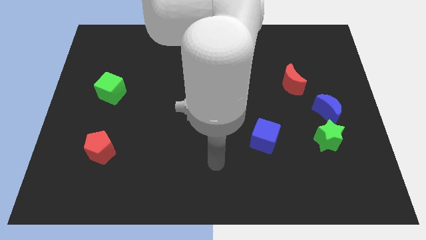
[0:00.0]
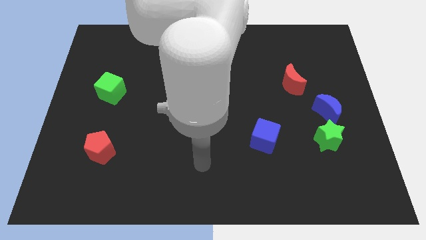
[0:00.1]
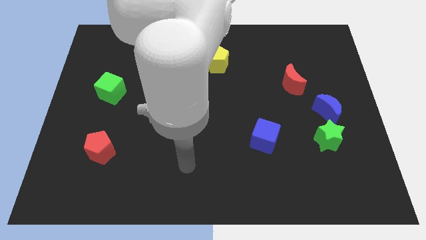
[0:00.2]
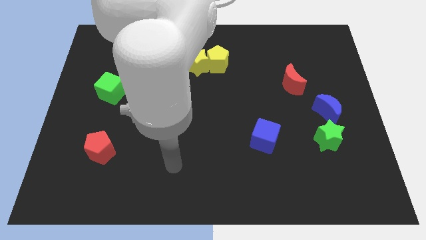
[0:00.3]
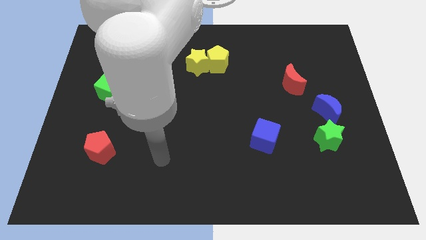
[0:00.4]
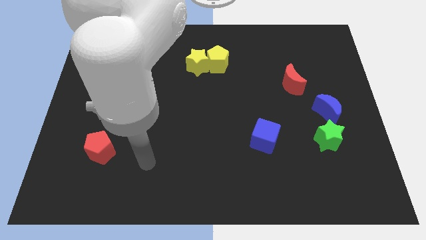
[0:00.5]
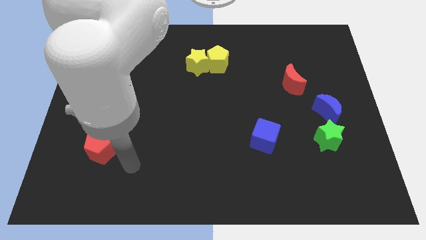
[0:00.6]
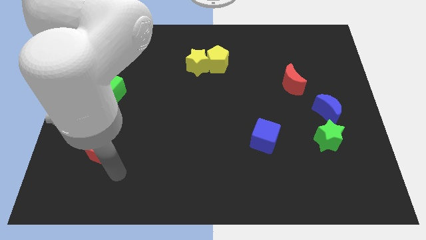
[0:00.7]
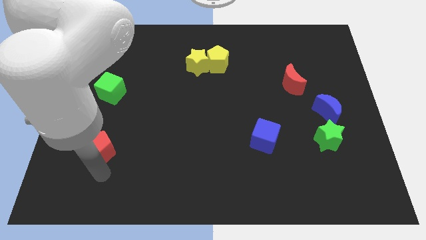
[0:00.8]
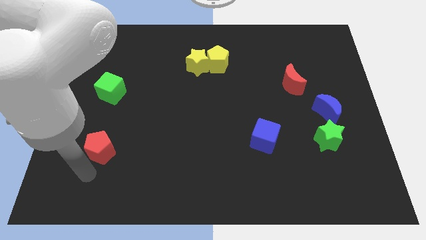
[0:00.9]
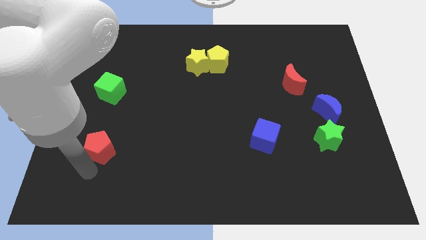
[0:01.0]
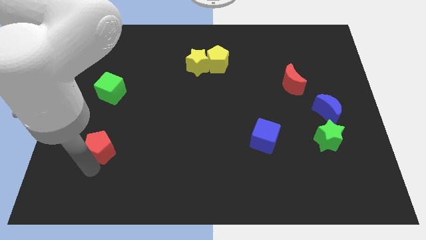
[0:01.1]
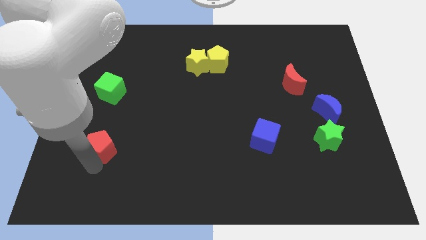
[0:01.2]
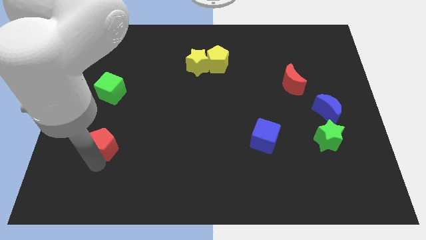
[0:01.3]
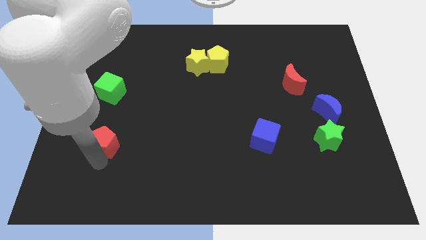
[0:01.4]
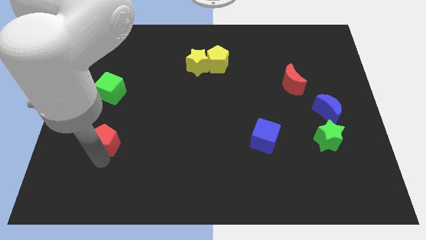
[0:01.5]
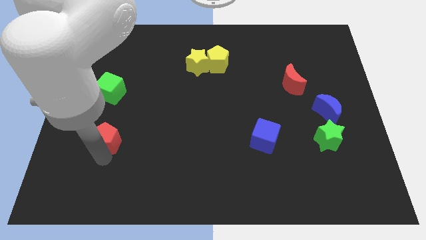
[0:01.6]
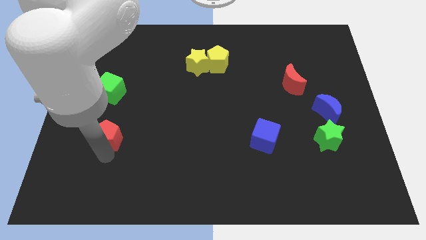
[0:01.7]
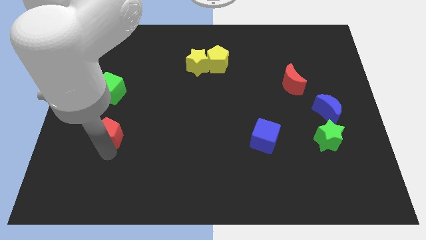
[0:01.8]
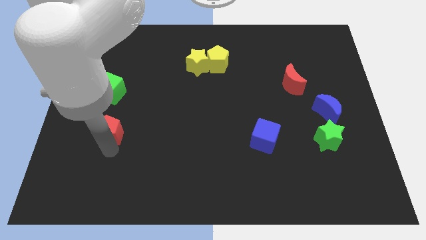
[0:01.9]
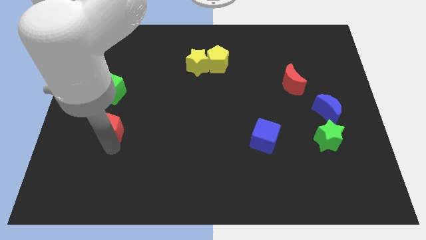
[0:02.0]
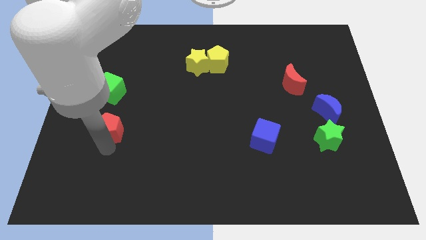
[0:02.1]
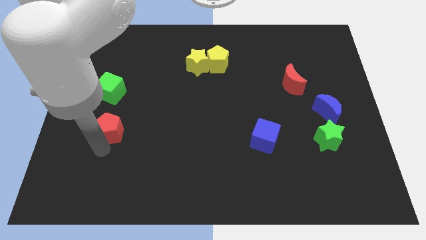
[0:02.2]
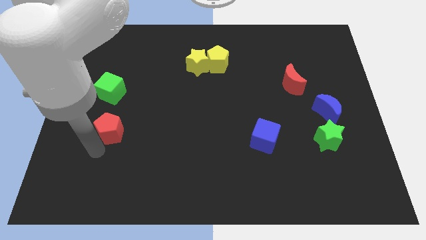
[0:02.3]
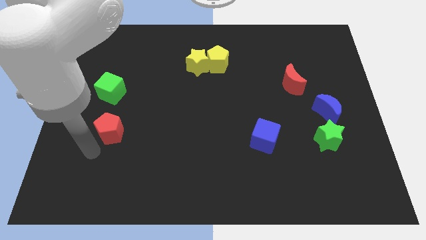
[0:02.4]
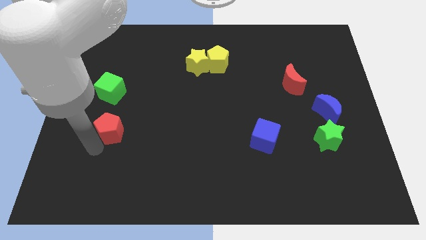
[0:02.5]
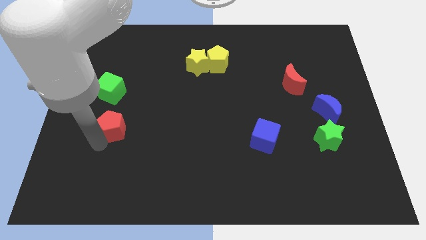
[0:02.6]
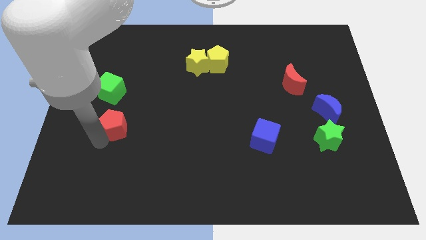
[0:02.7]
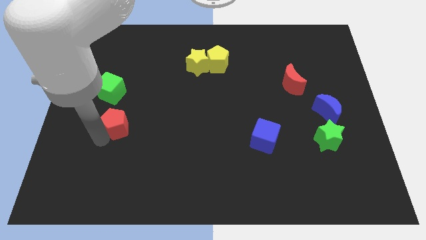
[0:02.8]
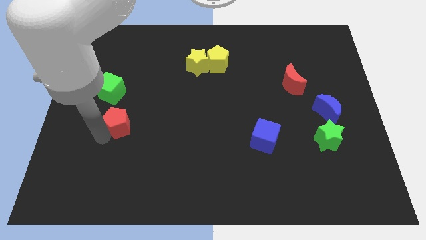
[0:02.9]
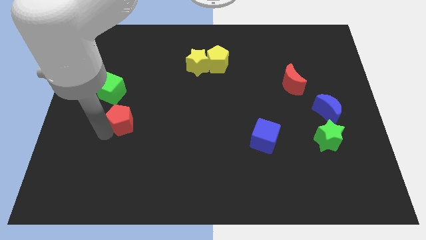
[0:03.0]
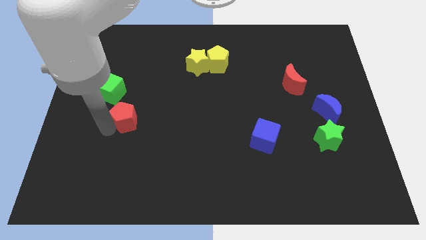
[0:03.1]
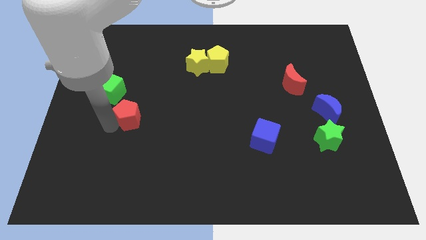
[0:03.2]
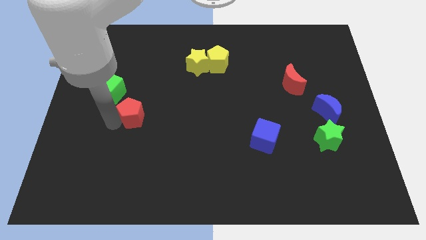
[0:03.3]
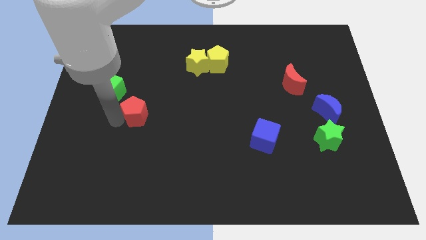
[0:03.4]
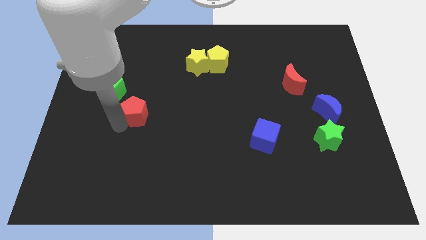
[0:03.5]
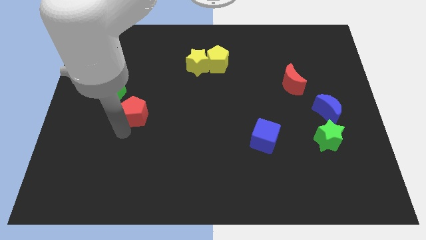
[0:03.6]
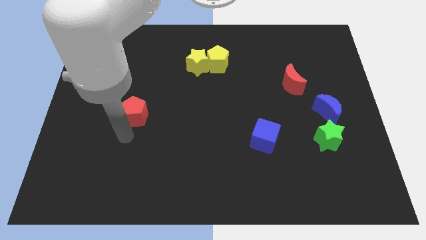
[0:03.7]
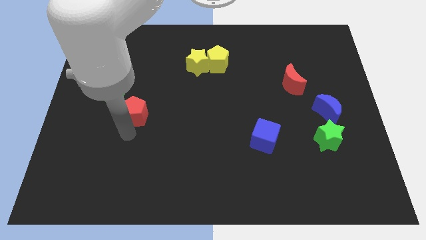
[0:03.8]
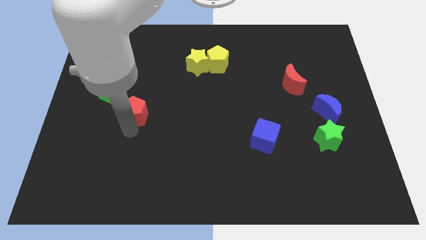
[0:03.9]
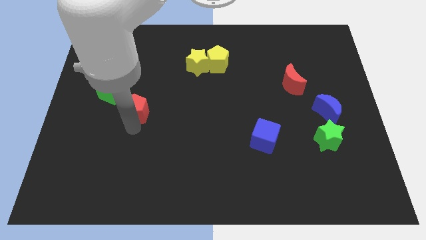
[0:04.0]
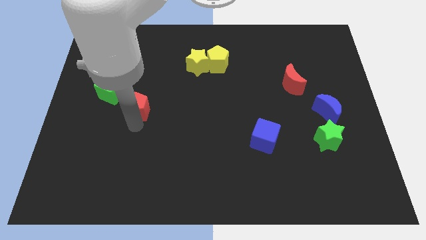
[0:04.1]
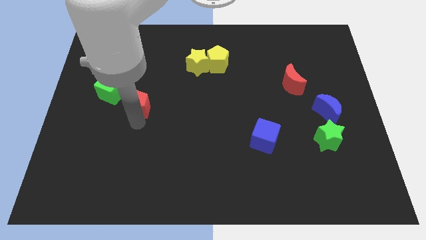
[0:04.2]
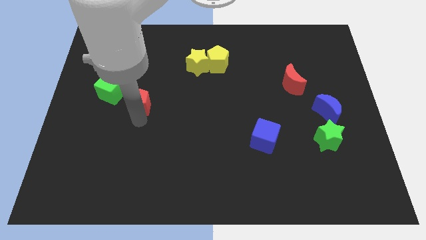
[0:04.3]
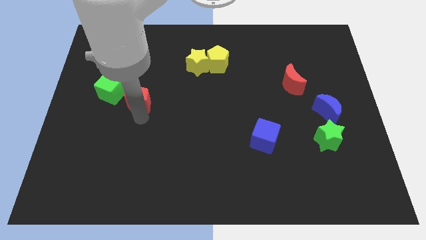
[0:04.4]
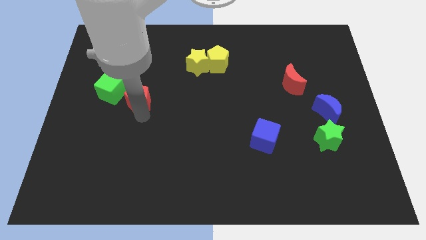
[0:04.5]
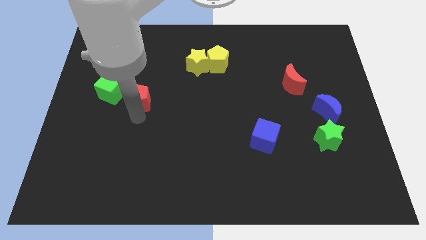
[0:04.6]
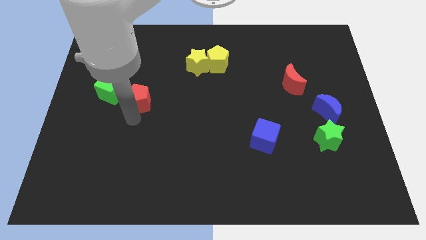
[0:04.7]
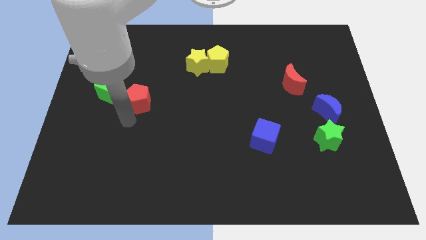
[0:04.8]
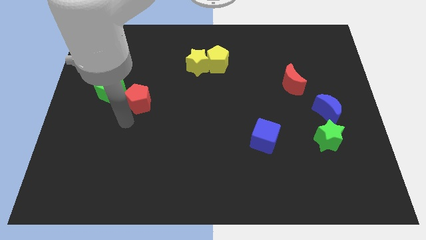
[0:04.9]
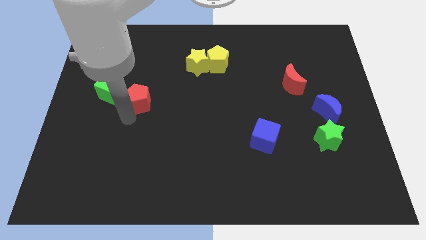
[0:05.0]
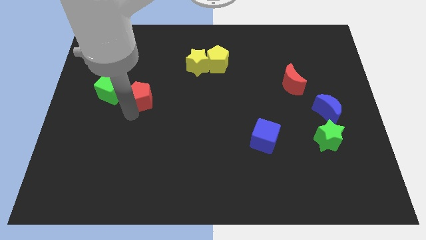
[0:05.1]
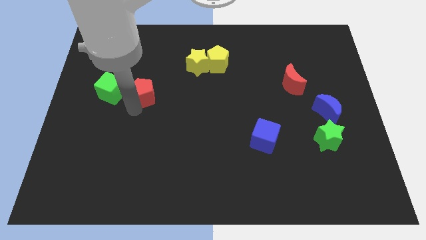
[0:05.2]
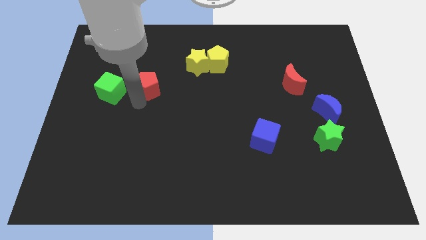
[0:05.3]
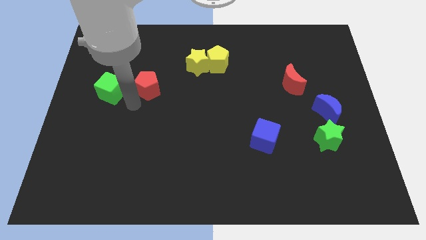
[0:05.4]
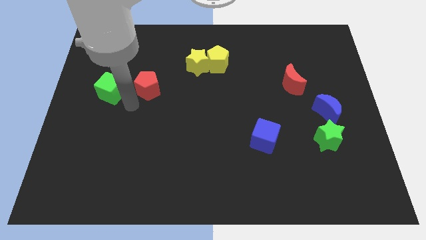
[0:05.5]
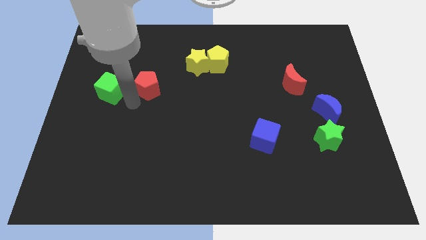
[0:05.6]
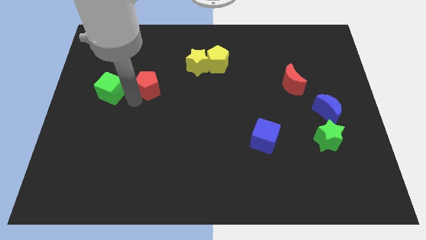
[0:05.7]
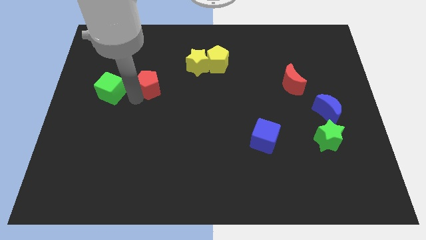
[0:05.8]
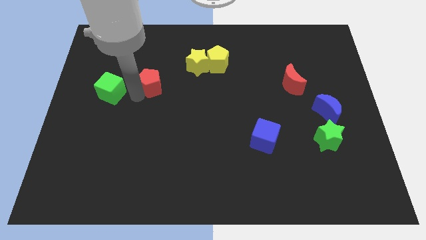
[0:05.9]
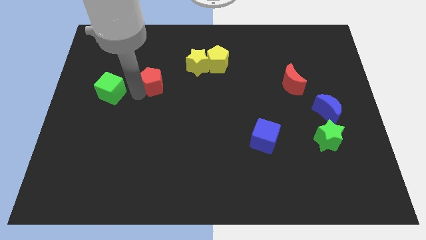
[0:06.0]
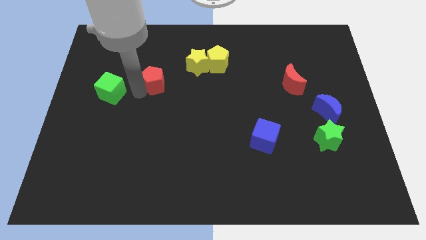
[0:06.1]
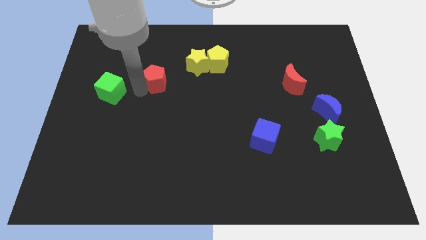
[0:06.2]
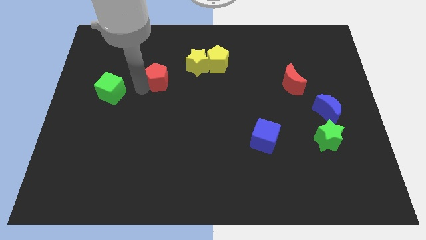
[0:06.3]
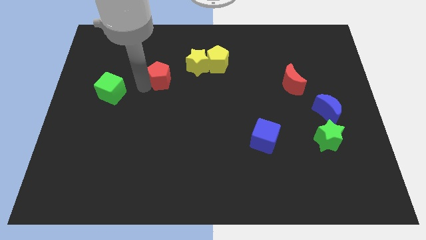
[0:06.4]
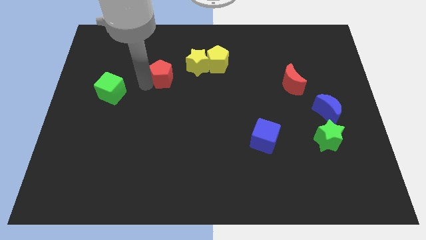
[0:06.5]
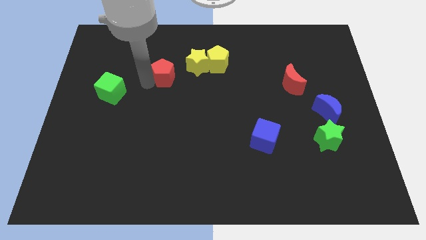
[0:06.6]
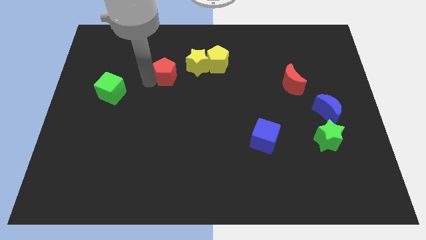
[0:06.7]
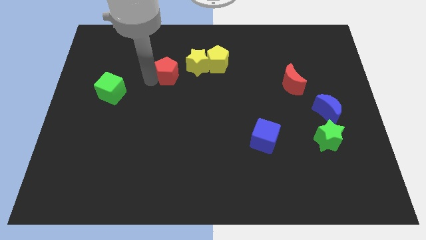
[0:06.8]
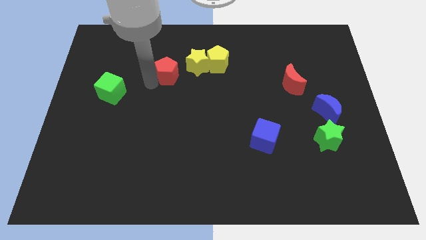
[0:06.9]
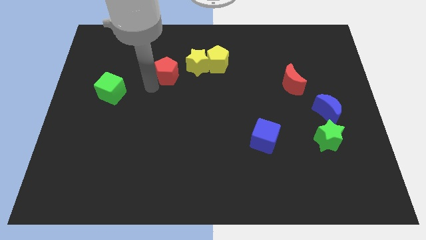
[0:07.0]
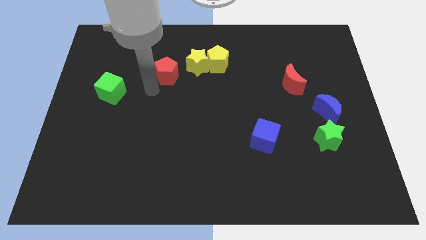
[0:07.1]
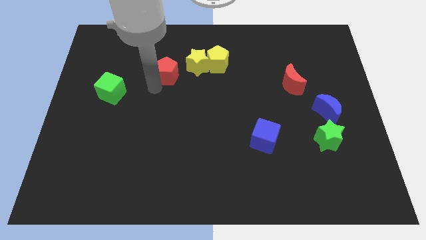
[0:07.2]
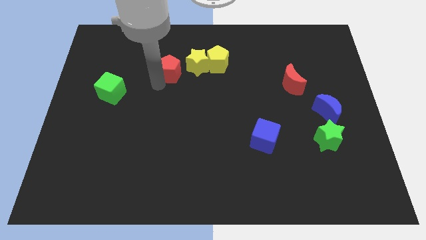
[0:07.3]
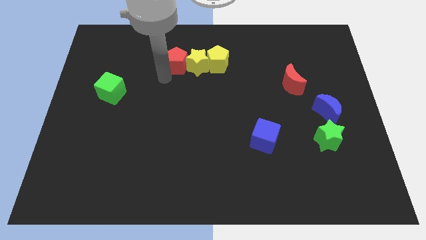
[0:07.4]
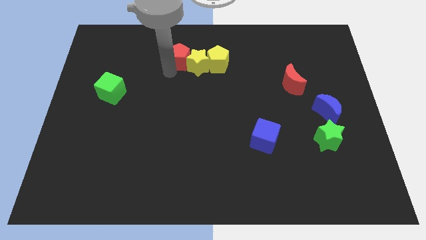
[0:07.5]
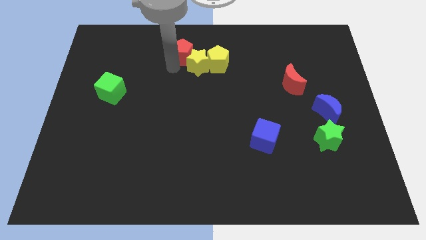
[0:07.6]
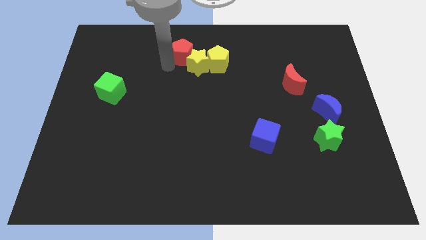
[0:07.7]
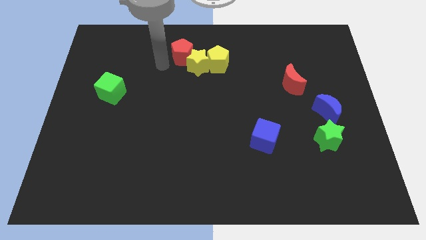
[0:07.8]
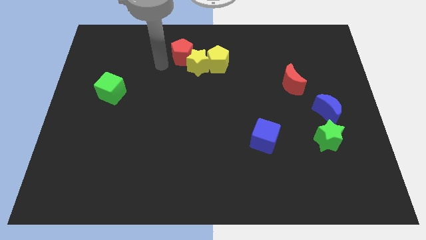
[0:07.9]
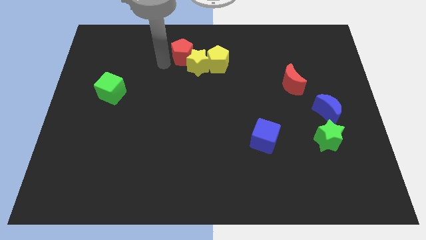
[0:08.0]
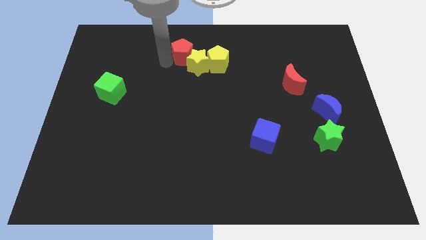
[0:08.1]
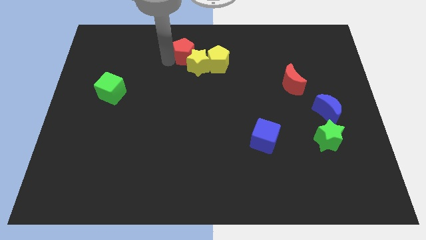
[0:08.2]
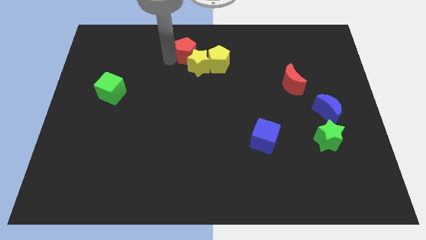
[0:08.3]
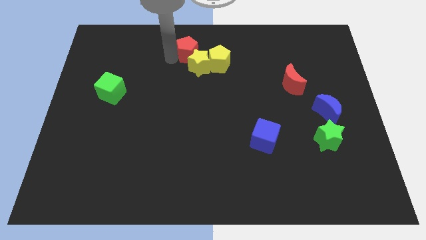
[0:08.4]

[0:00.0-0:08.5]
put the red pentagon to the top side
